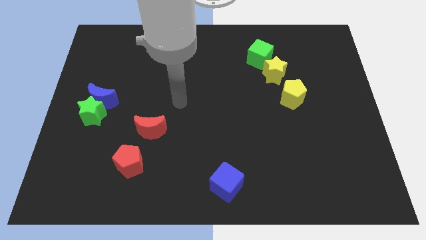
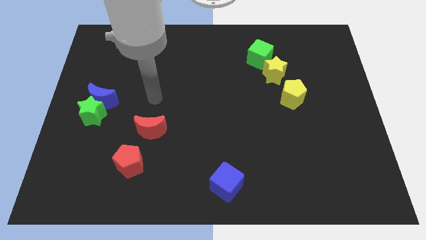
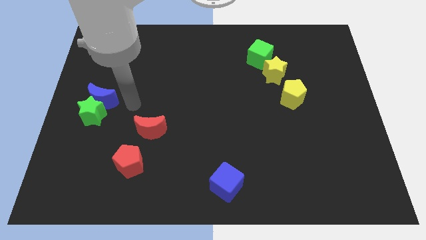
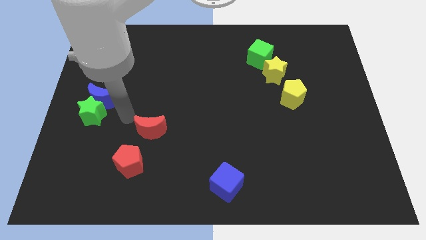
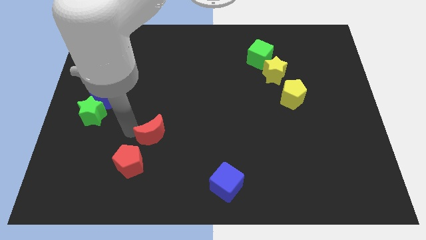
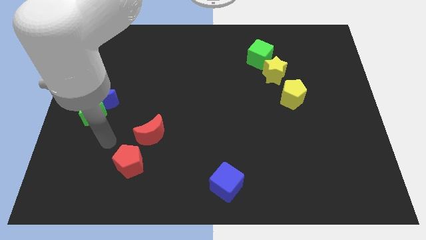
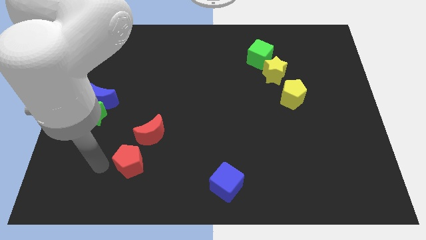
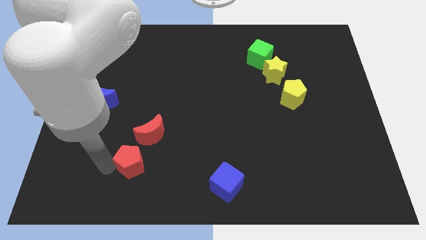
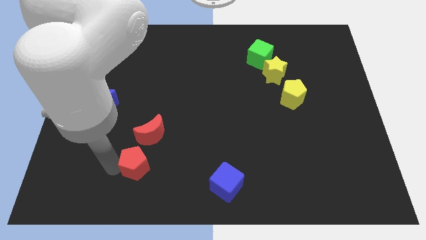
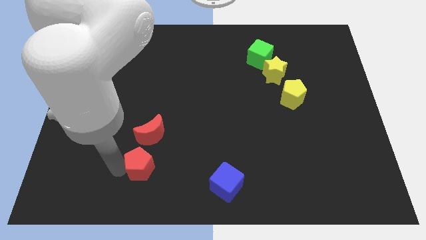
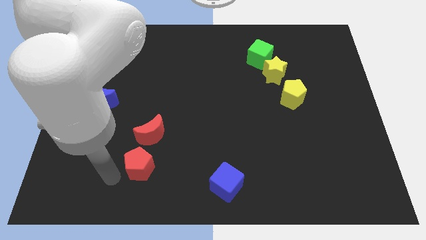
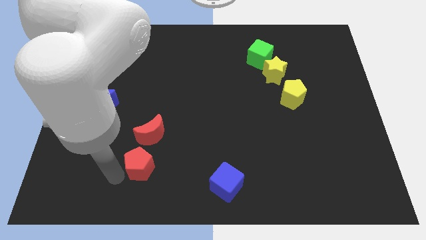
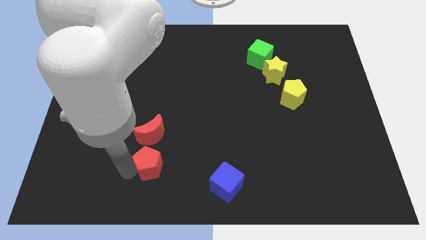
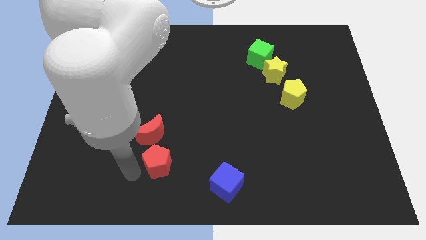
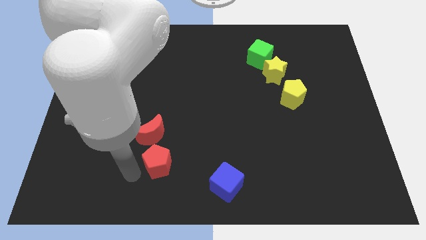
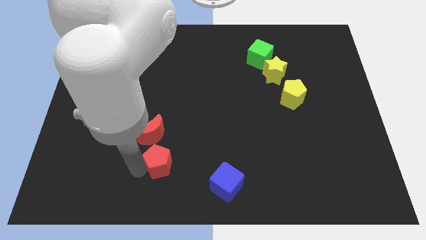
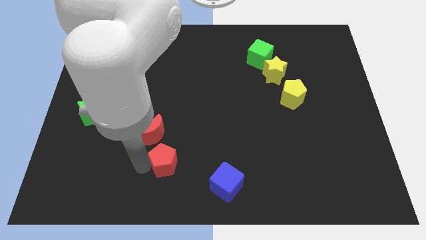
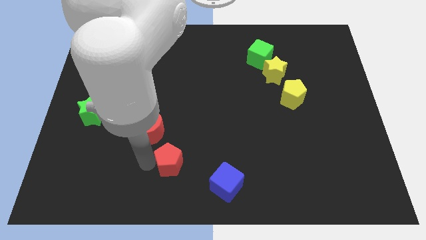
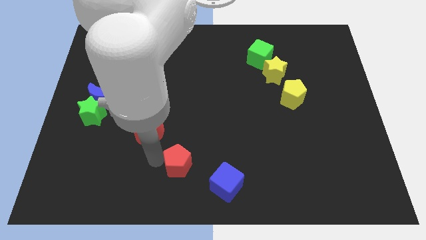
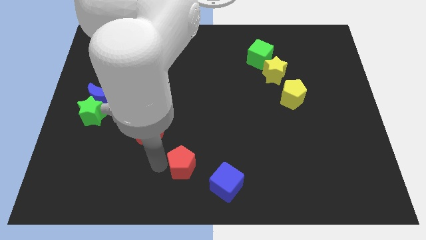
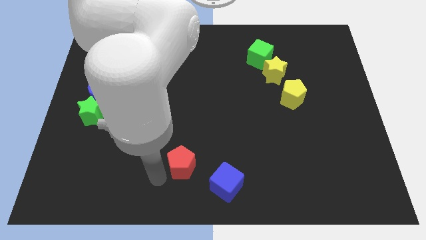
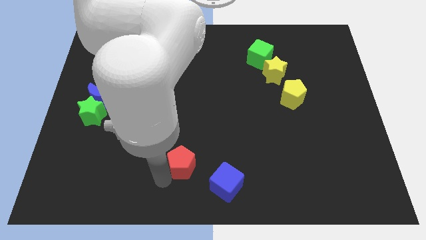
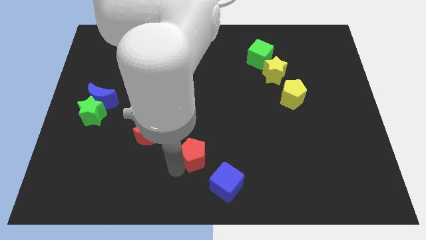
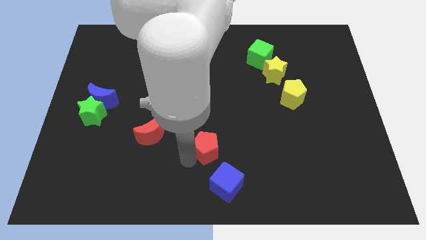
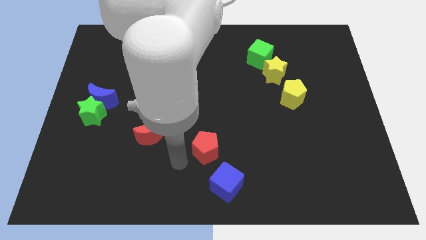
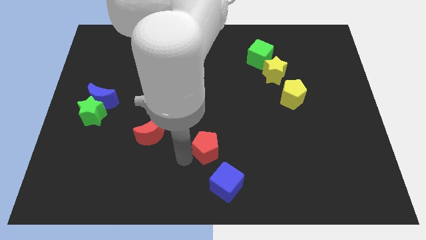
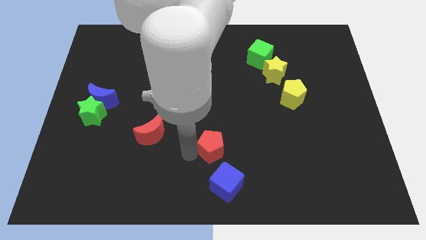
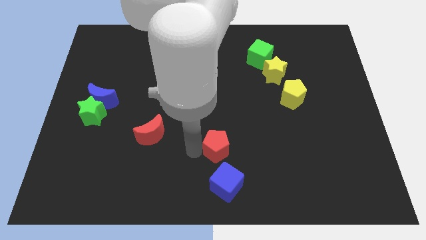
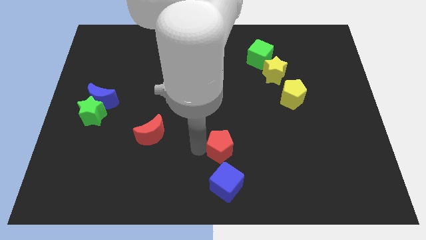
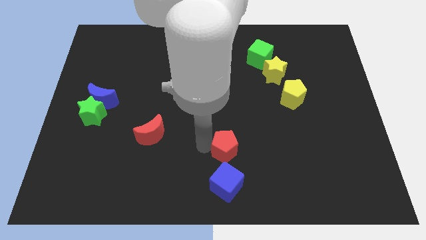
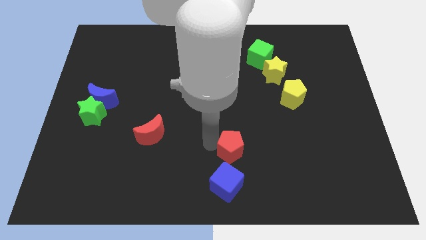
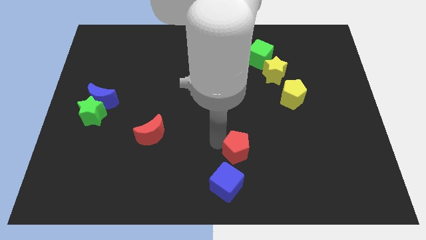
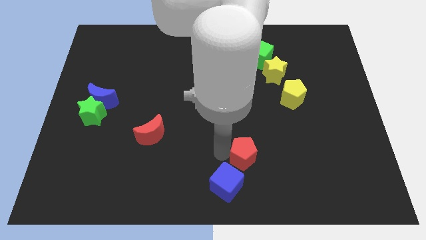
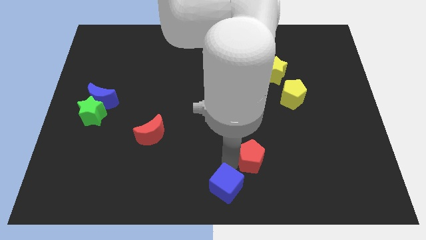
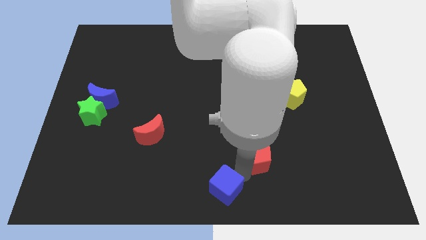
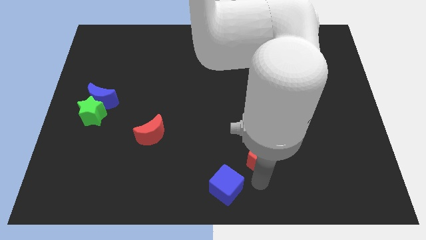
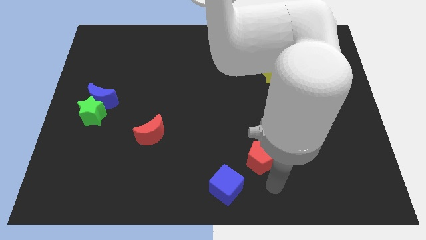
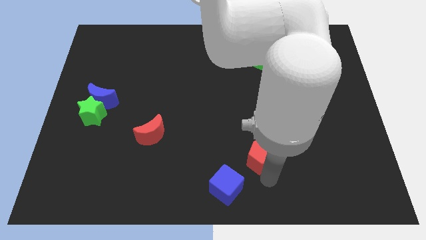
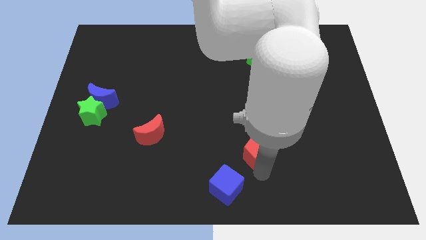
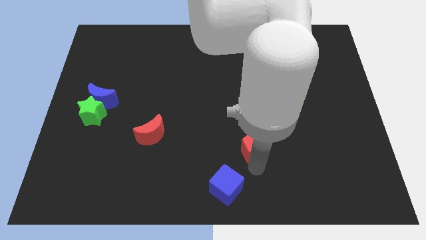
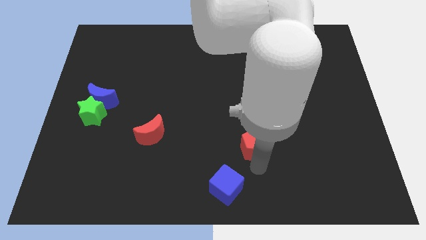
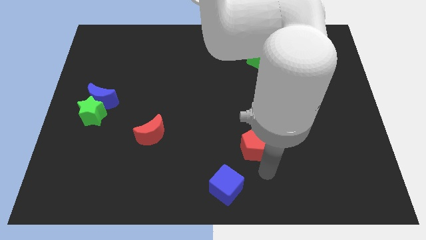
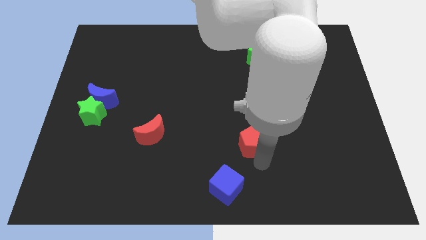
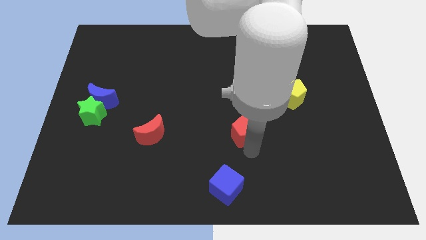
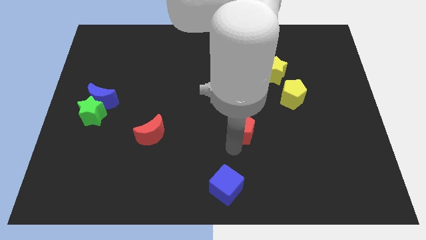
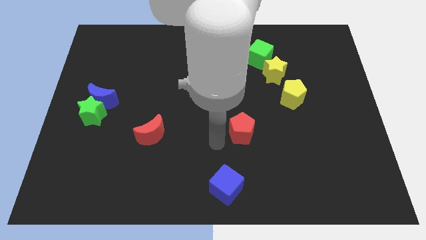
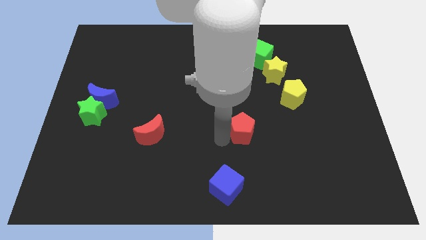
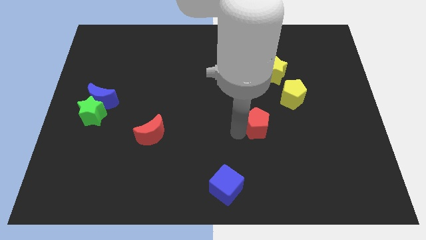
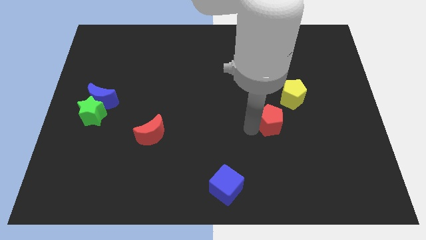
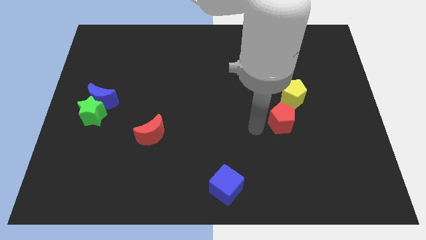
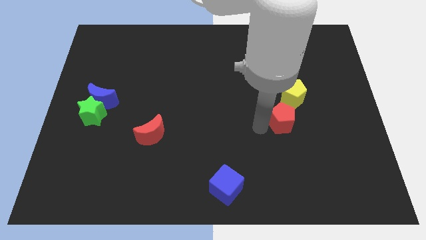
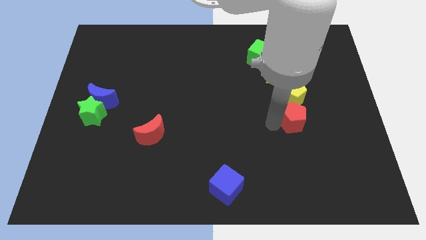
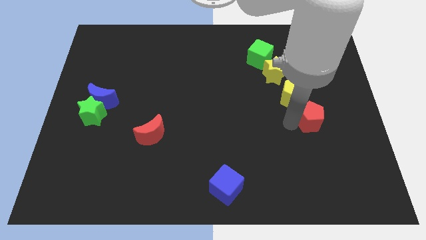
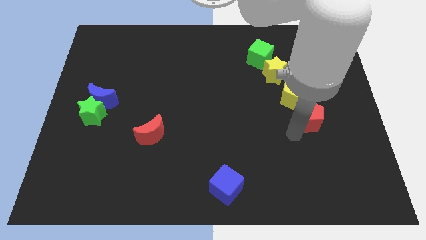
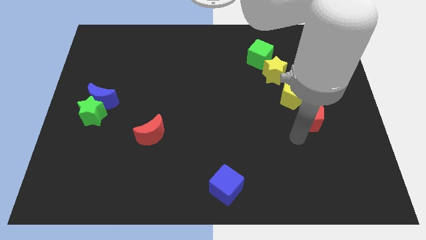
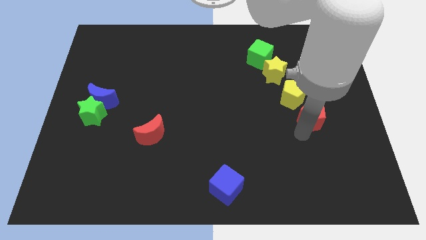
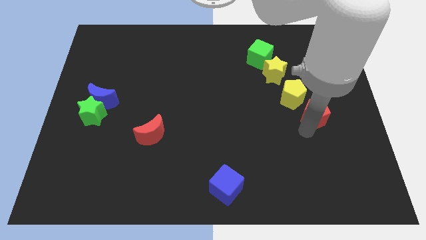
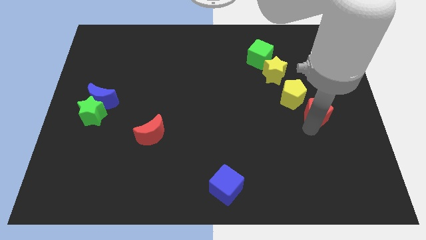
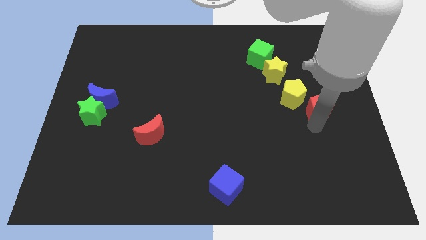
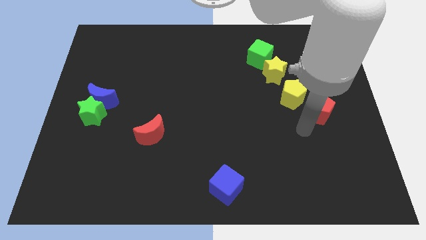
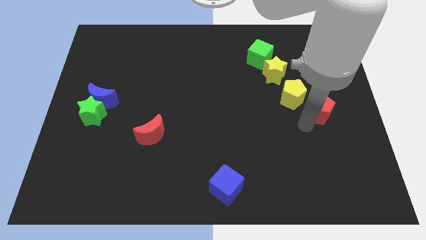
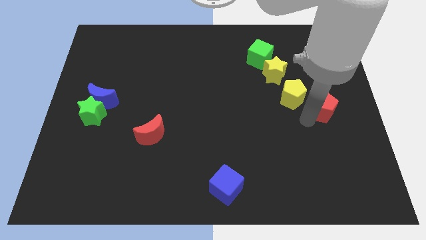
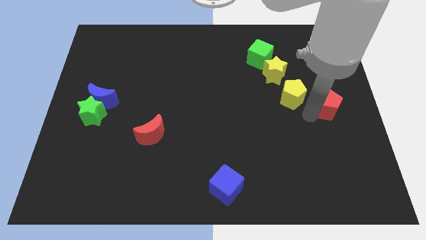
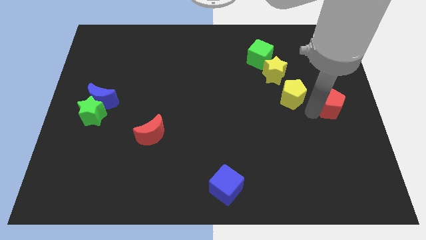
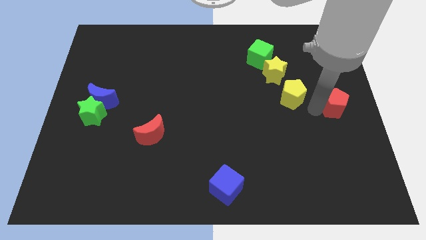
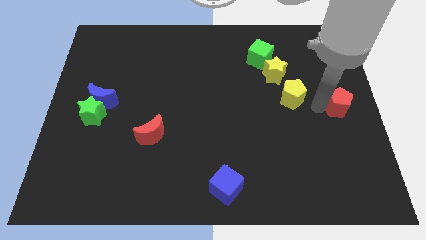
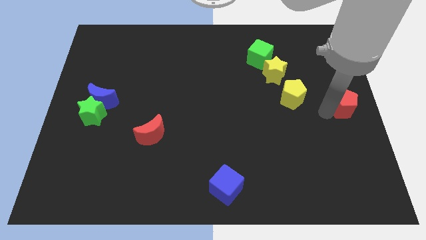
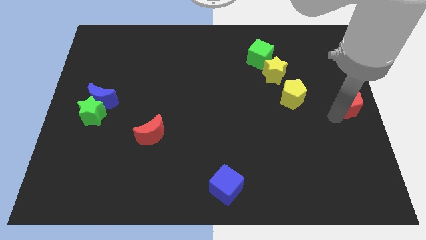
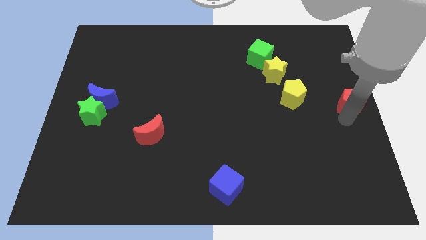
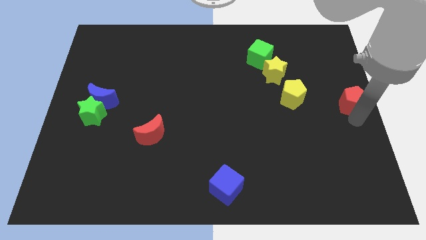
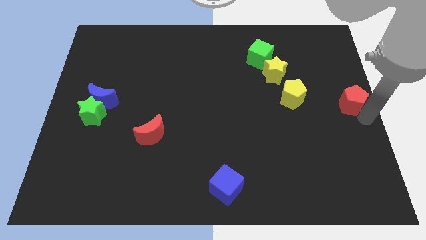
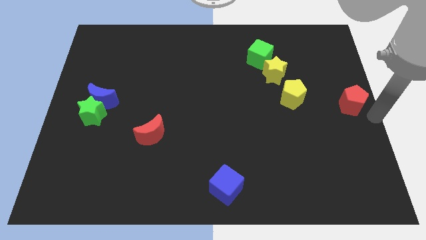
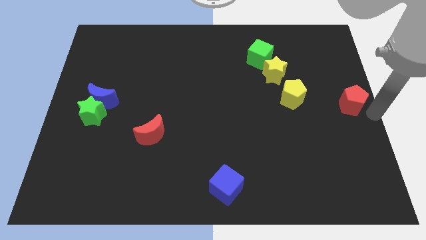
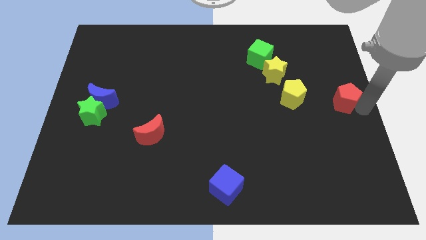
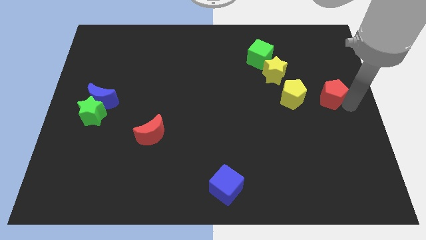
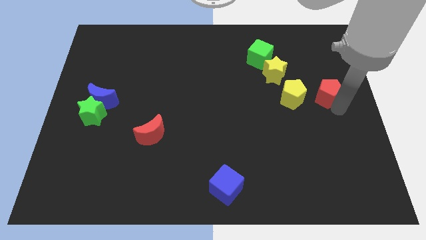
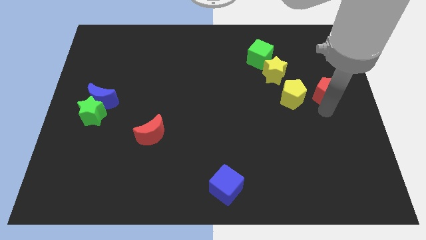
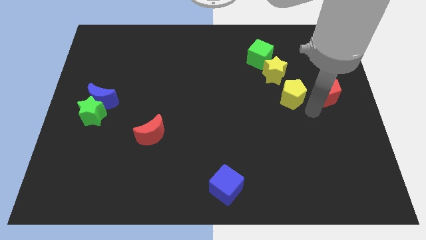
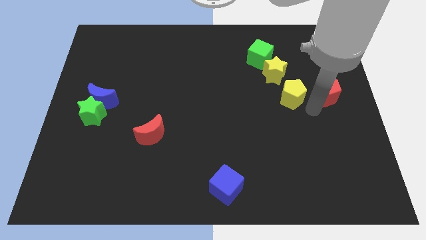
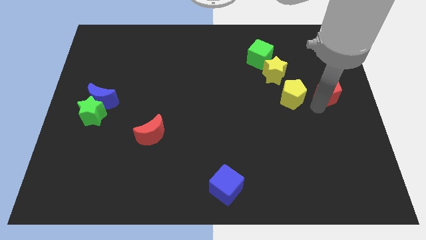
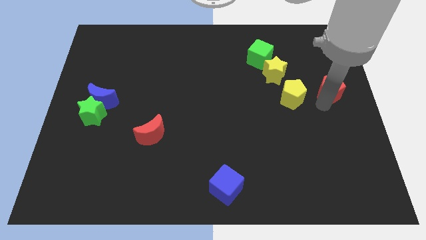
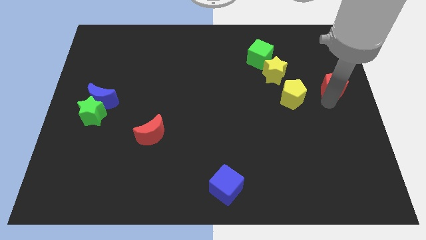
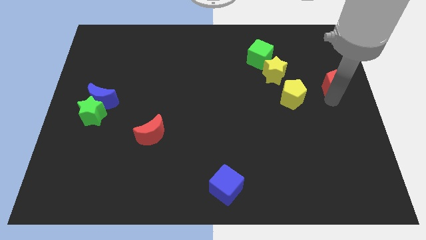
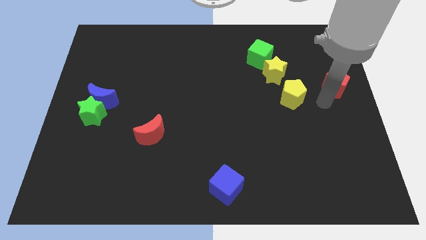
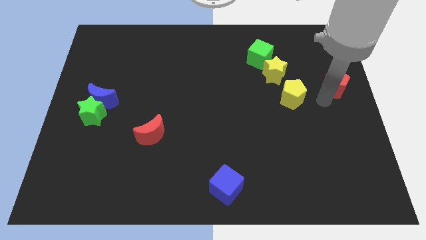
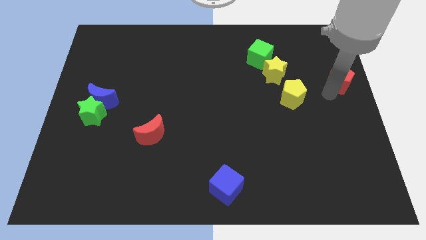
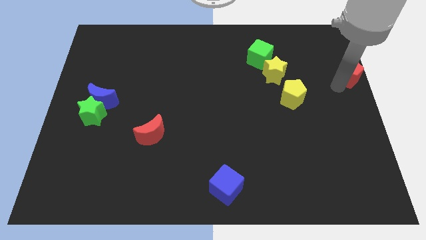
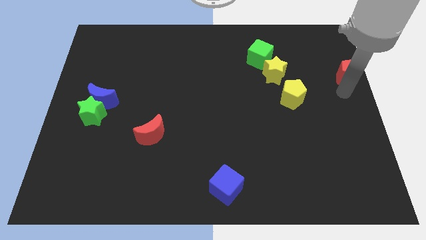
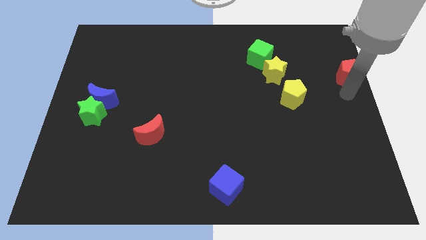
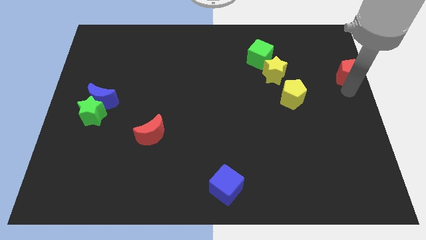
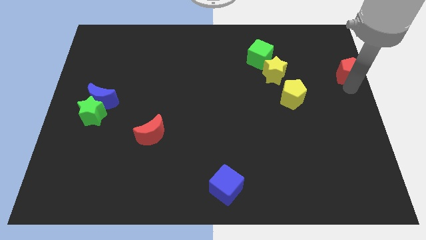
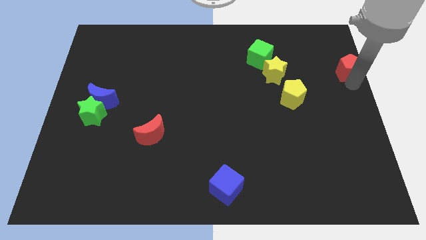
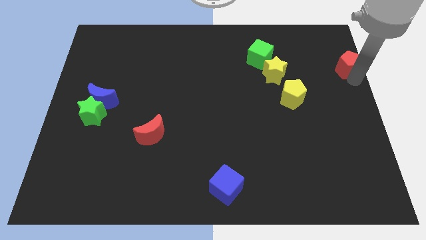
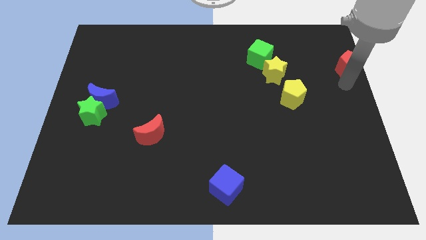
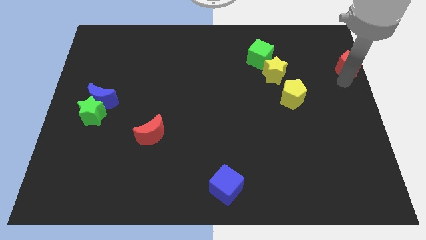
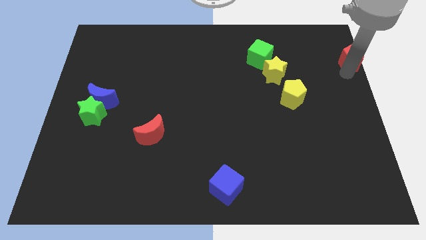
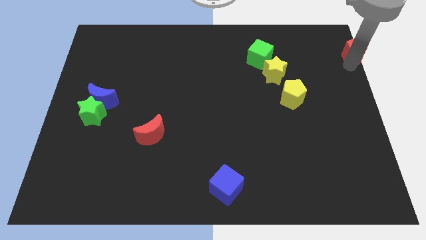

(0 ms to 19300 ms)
put the red pentagon to the top right
